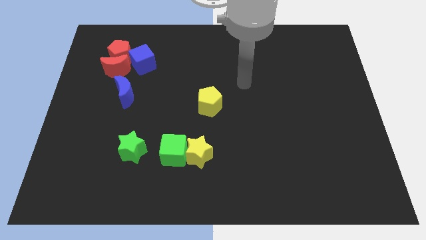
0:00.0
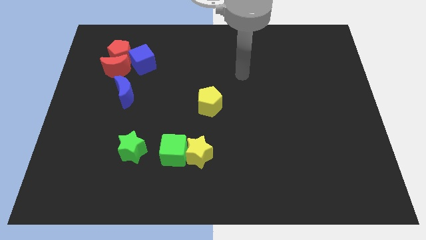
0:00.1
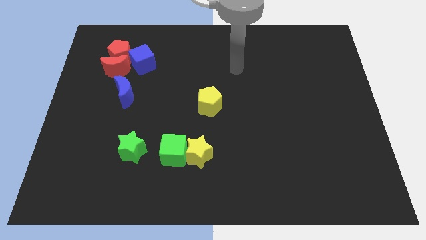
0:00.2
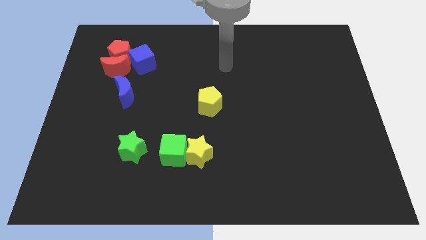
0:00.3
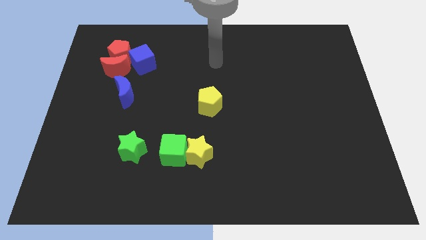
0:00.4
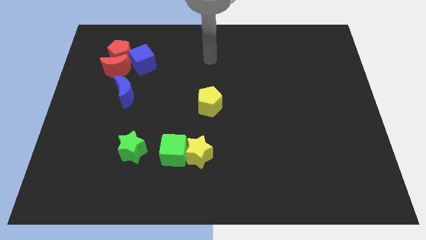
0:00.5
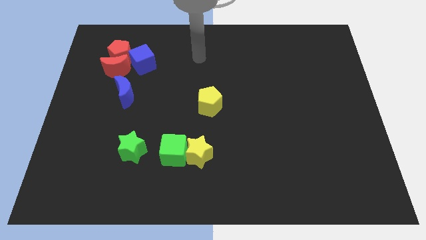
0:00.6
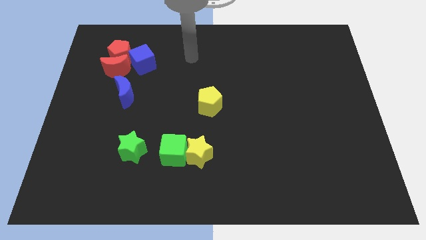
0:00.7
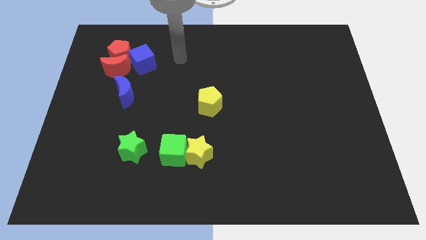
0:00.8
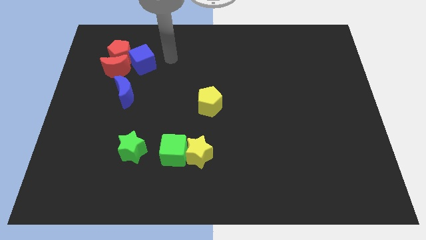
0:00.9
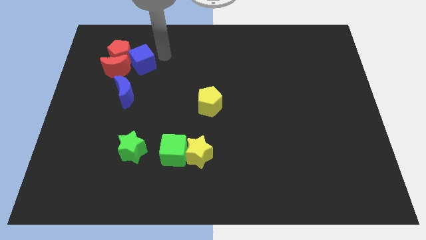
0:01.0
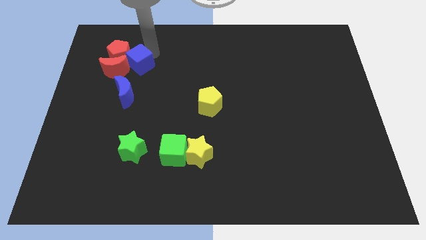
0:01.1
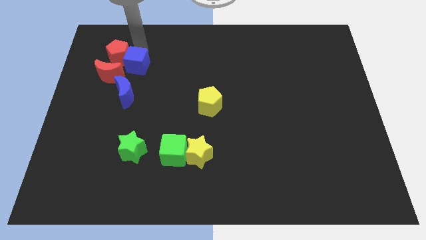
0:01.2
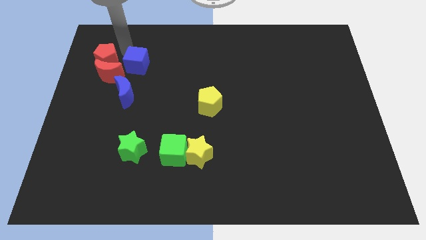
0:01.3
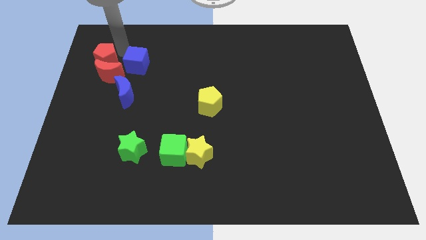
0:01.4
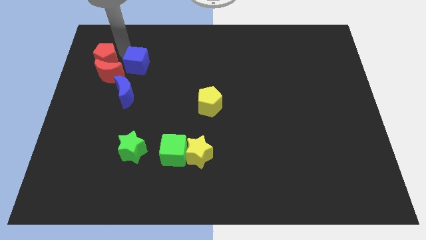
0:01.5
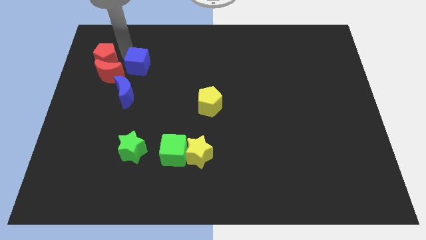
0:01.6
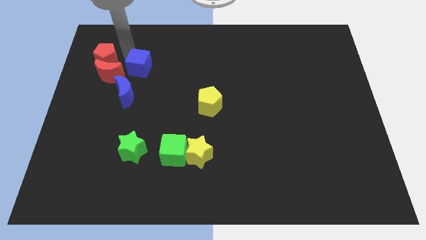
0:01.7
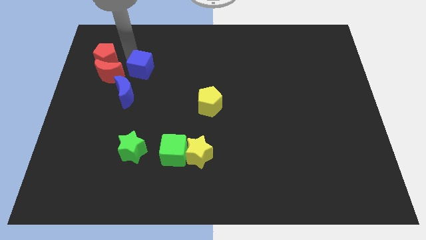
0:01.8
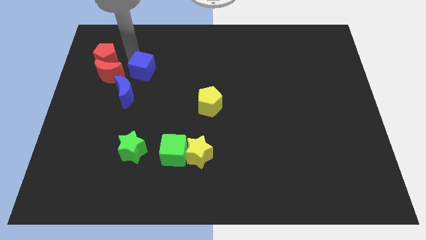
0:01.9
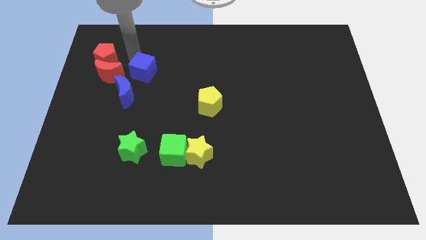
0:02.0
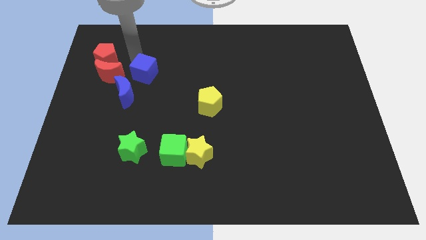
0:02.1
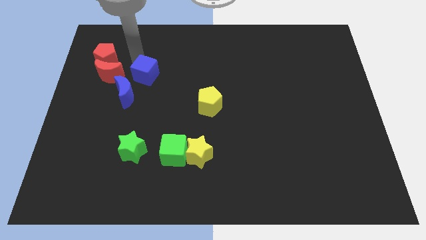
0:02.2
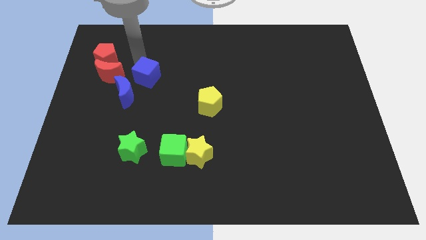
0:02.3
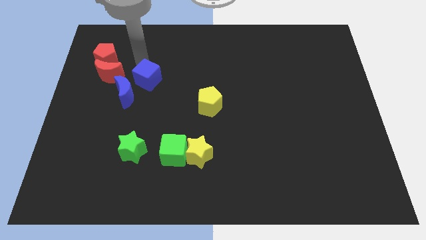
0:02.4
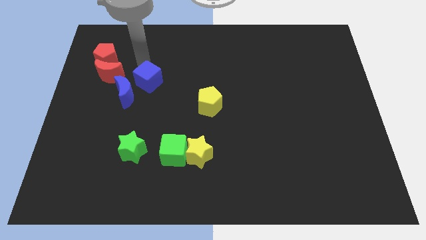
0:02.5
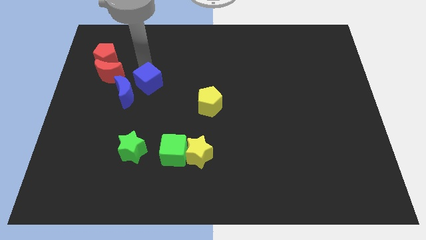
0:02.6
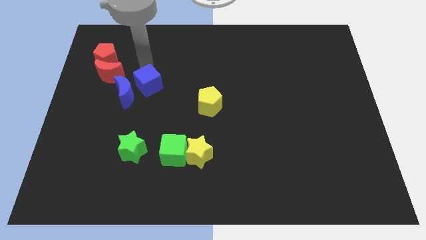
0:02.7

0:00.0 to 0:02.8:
push the blue cube downwards a little

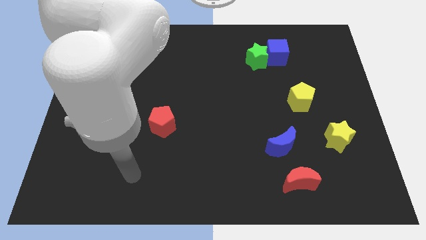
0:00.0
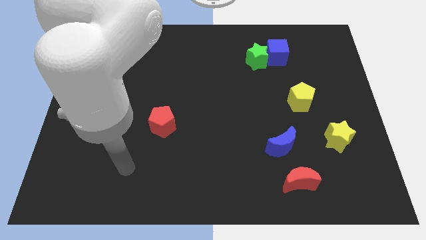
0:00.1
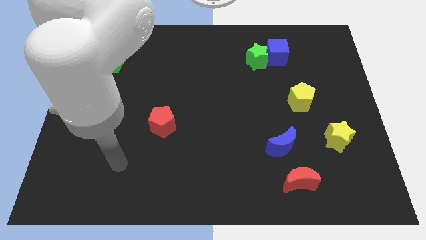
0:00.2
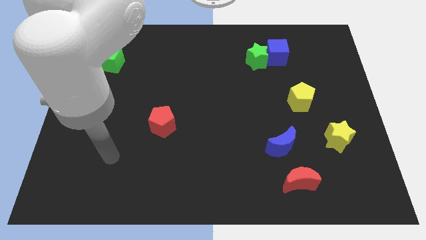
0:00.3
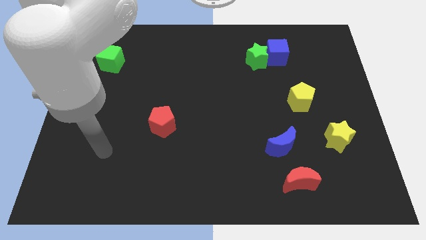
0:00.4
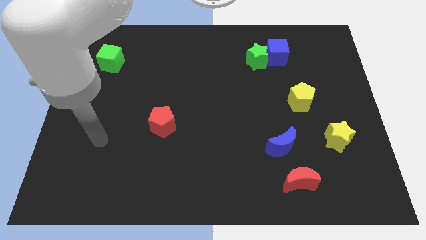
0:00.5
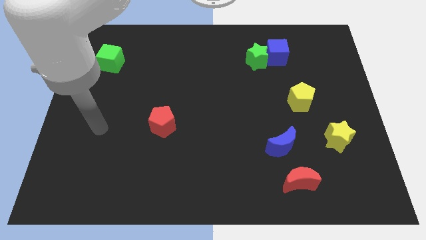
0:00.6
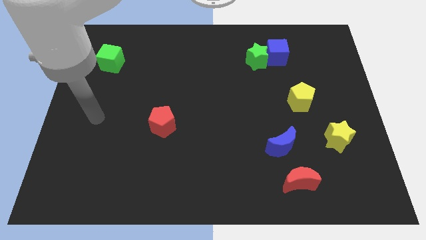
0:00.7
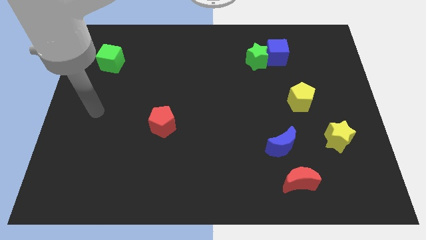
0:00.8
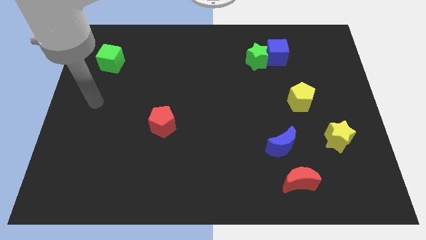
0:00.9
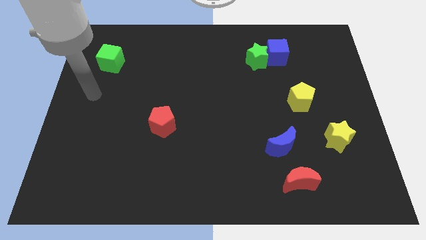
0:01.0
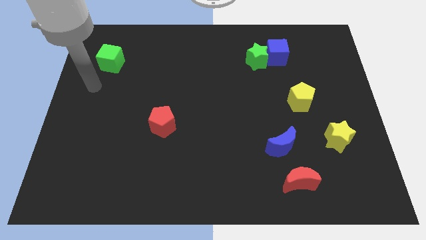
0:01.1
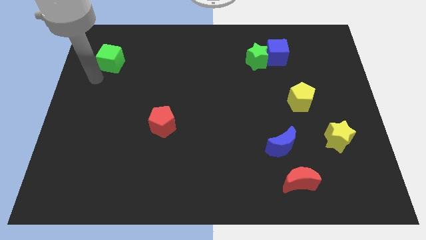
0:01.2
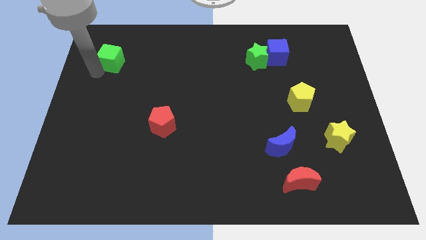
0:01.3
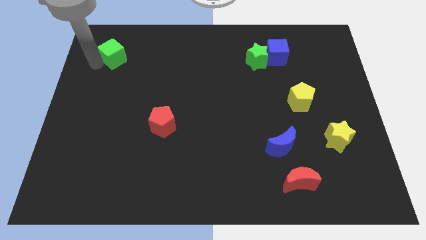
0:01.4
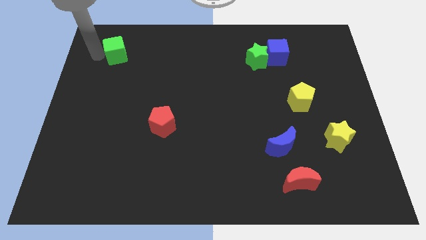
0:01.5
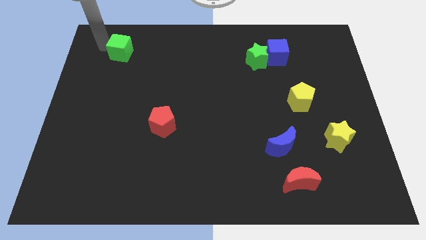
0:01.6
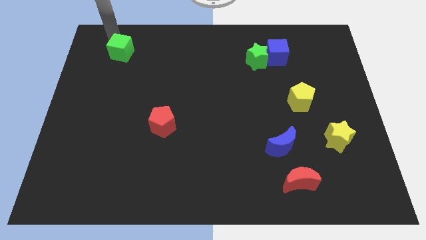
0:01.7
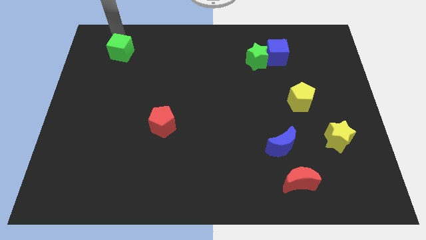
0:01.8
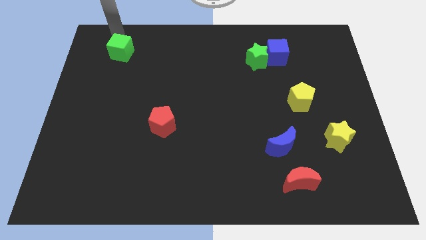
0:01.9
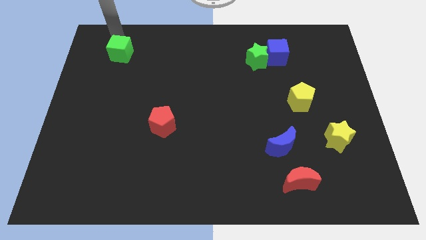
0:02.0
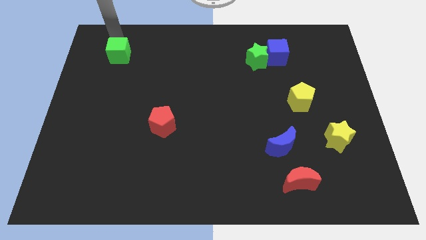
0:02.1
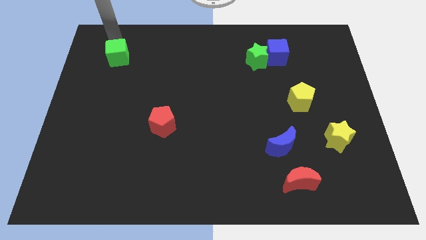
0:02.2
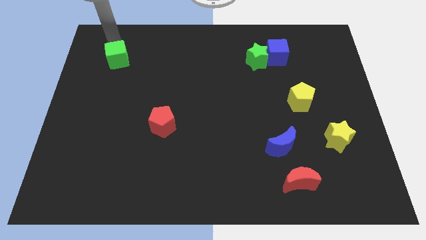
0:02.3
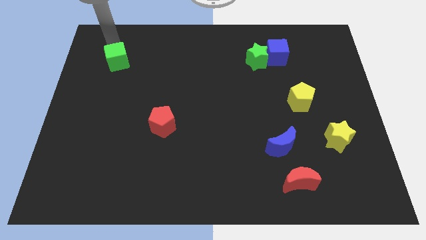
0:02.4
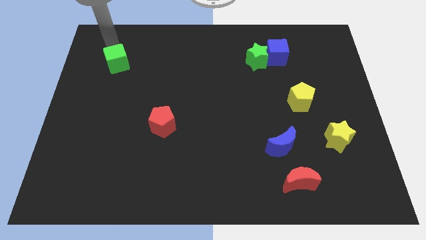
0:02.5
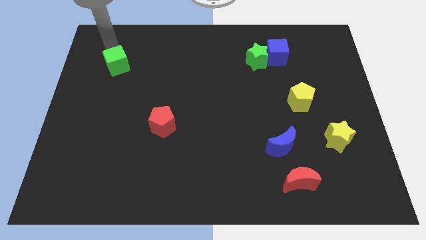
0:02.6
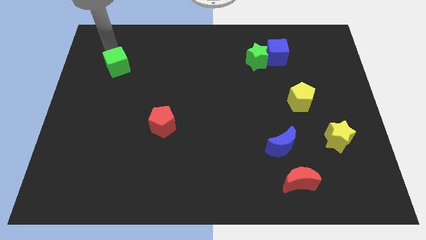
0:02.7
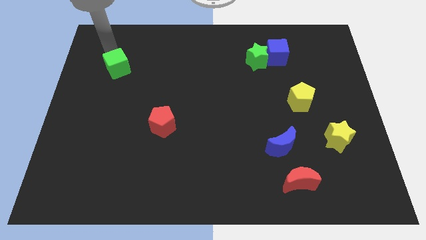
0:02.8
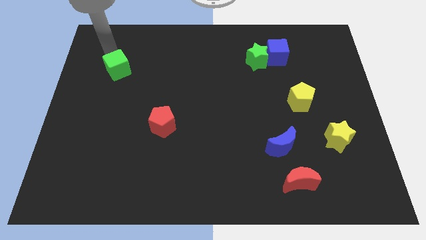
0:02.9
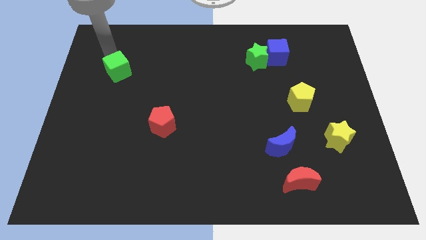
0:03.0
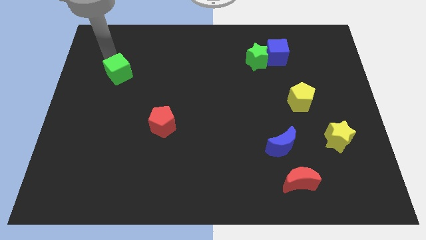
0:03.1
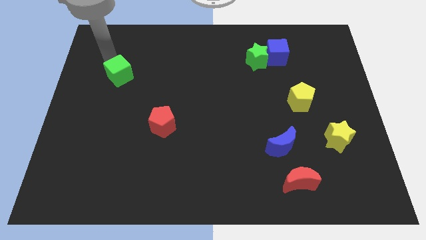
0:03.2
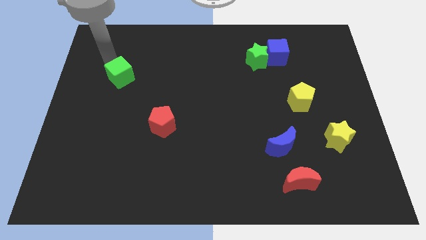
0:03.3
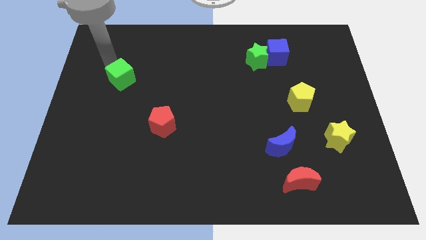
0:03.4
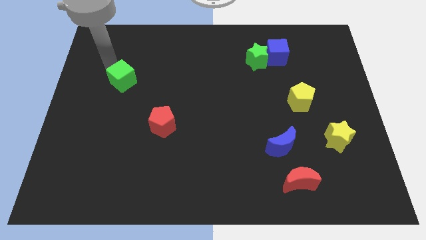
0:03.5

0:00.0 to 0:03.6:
push the green cube down and to the right a bit

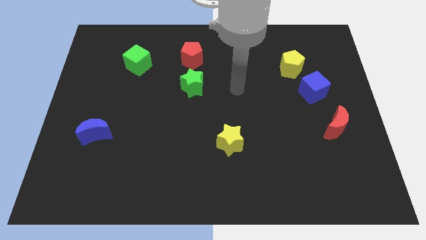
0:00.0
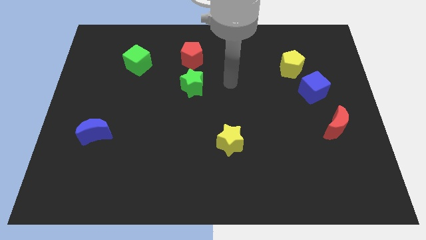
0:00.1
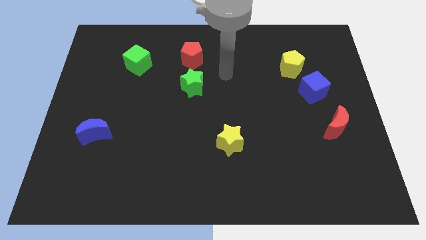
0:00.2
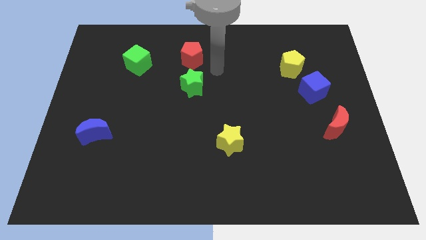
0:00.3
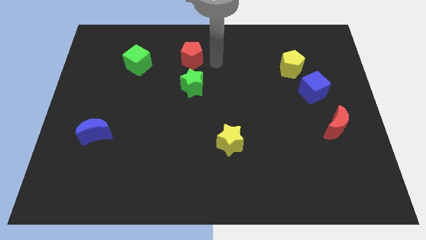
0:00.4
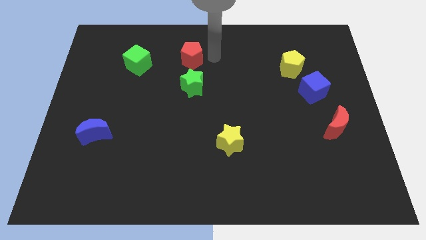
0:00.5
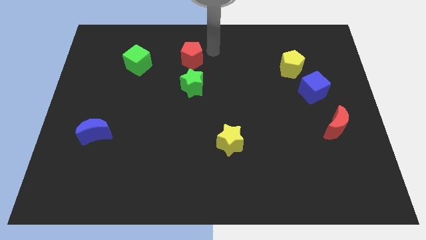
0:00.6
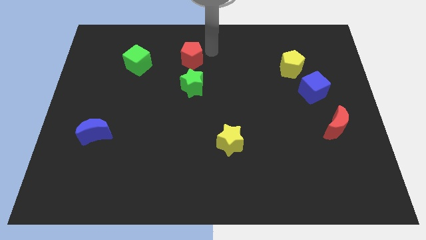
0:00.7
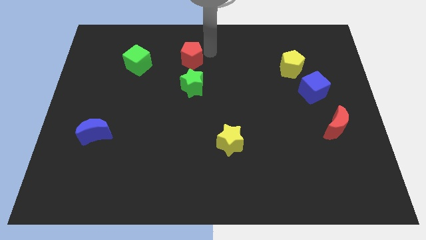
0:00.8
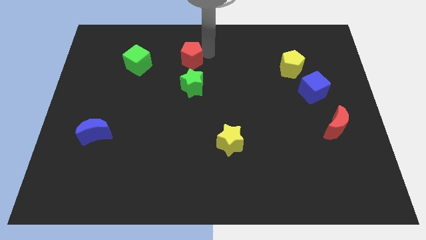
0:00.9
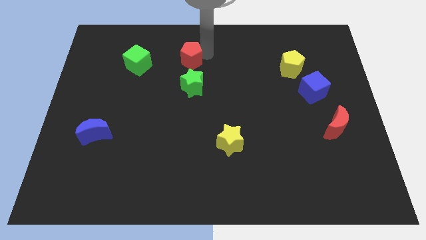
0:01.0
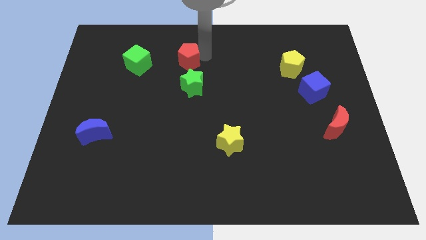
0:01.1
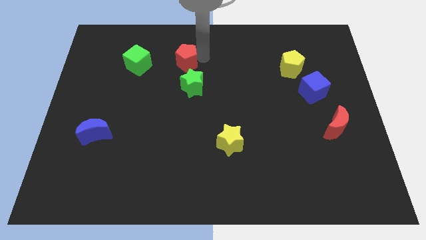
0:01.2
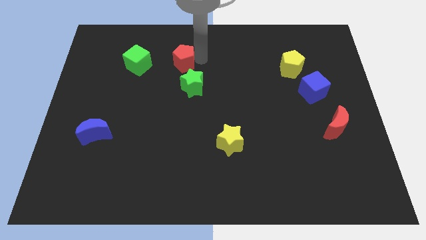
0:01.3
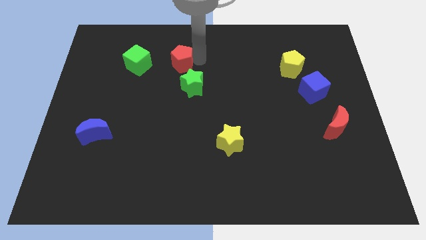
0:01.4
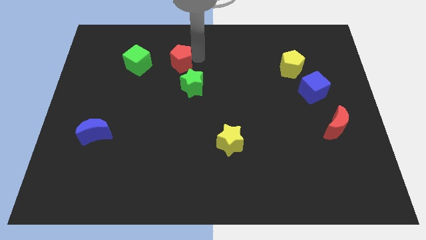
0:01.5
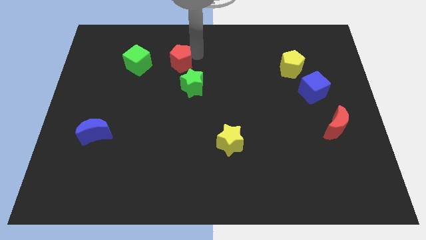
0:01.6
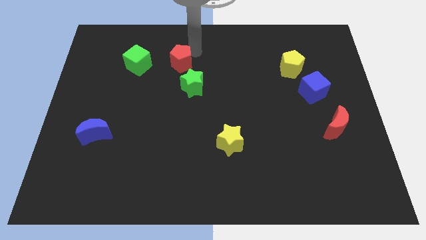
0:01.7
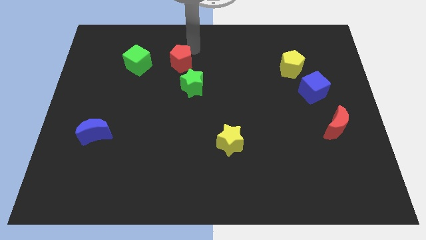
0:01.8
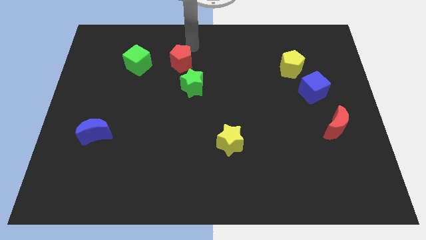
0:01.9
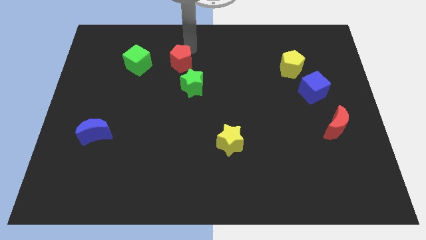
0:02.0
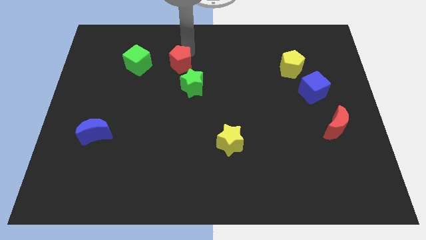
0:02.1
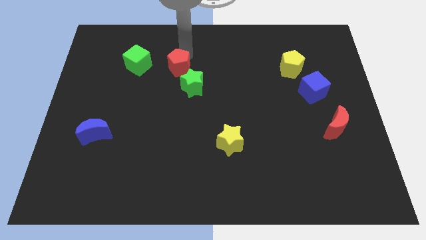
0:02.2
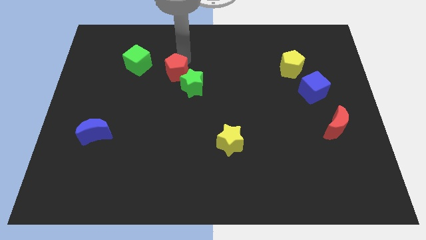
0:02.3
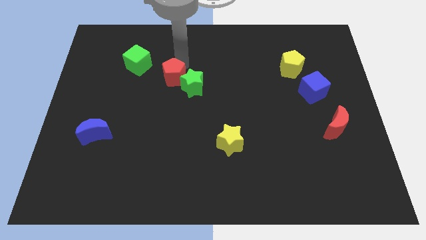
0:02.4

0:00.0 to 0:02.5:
slide the red pentagon a little downwards and left

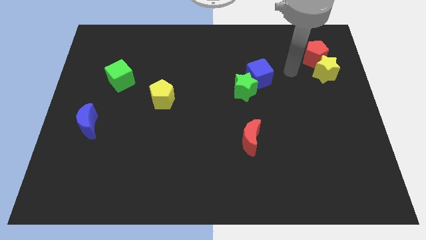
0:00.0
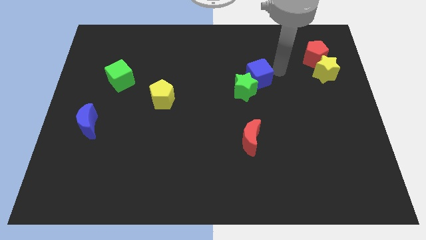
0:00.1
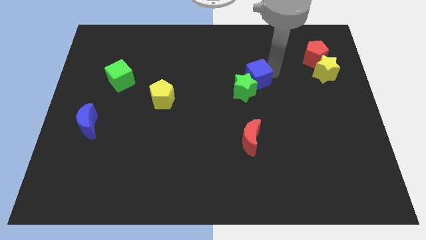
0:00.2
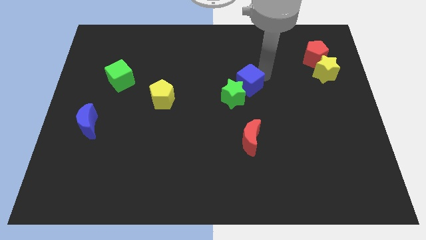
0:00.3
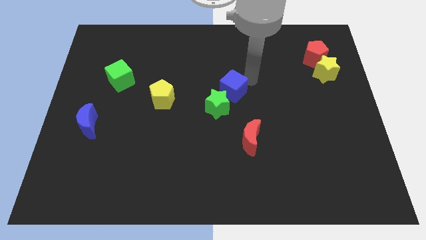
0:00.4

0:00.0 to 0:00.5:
move the green star a little downwards and left
